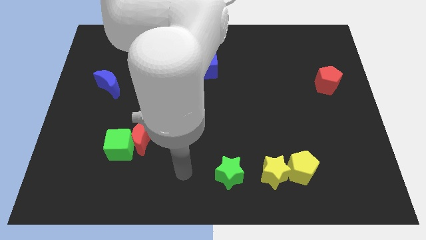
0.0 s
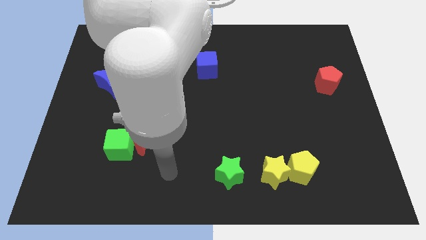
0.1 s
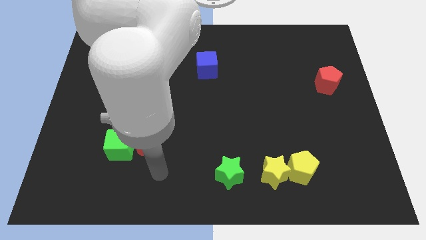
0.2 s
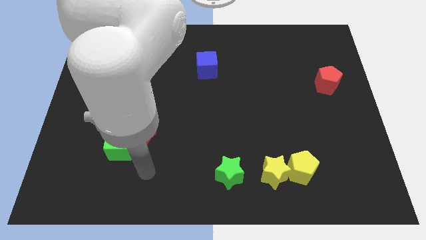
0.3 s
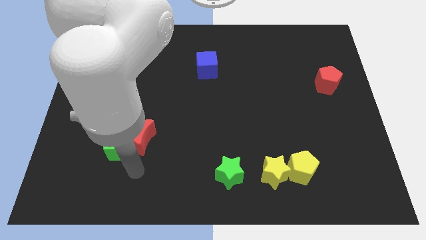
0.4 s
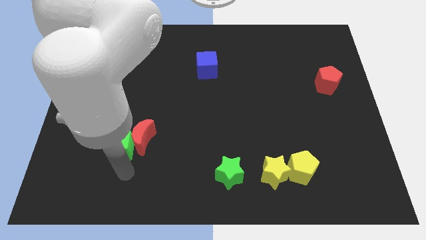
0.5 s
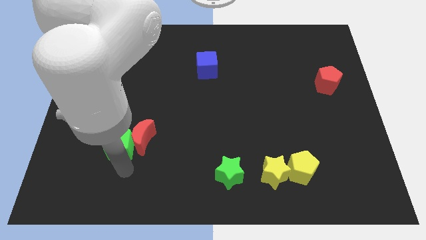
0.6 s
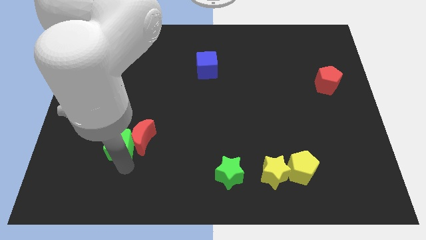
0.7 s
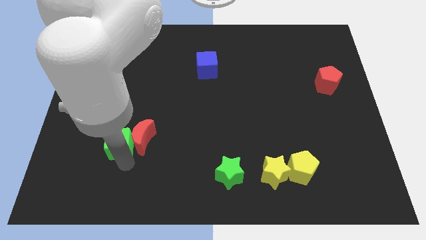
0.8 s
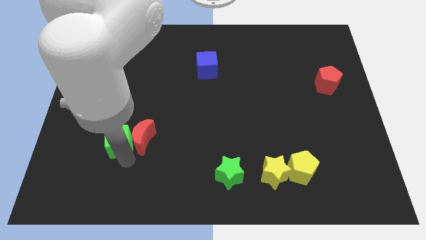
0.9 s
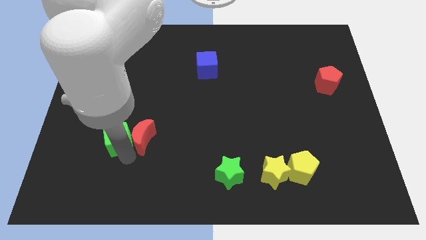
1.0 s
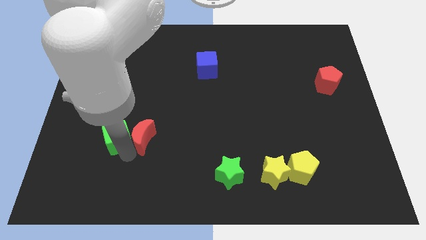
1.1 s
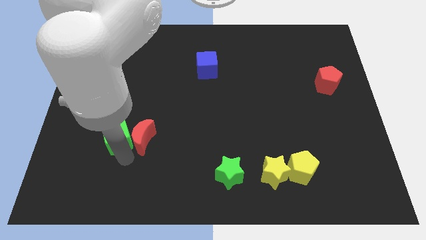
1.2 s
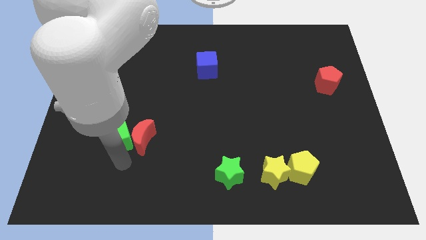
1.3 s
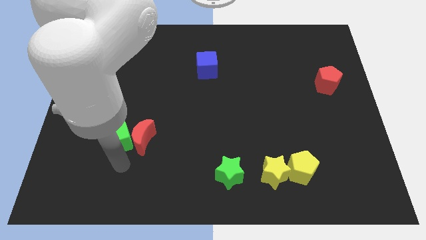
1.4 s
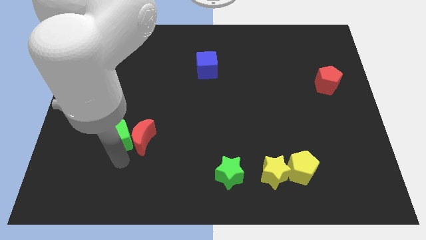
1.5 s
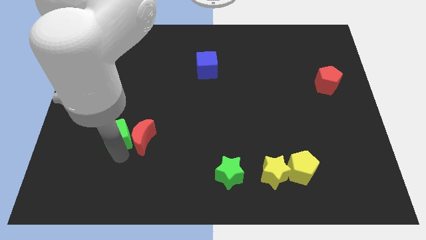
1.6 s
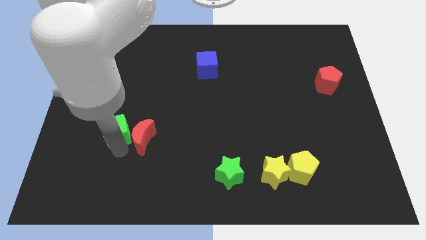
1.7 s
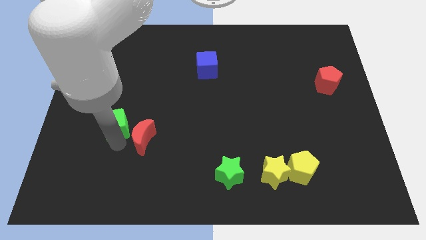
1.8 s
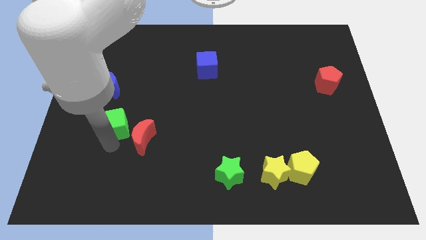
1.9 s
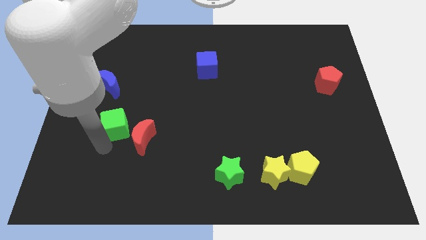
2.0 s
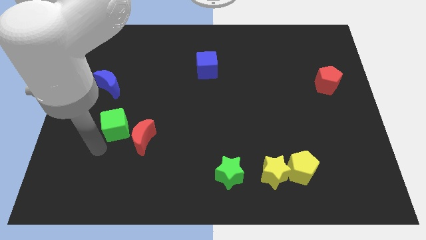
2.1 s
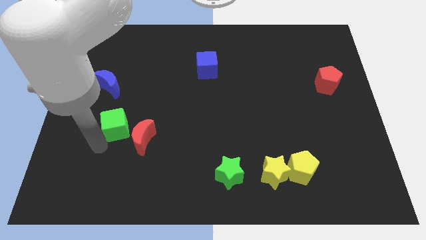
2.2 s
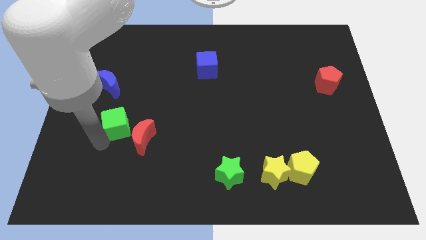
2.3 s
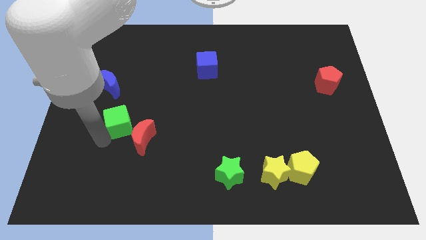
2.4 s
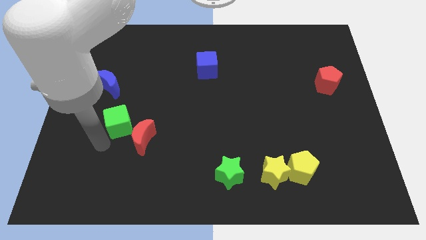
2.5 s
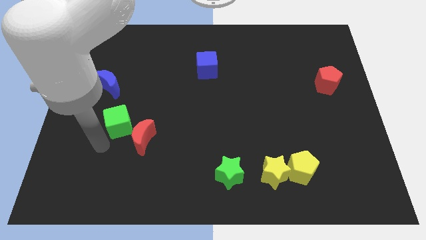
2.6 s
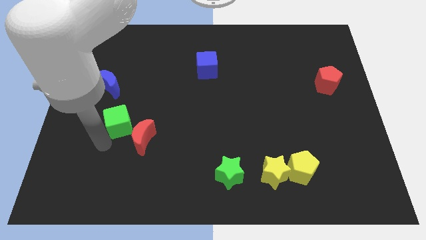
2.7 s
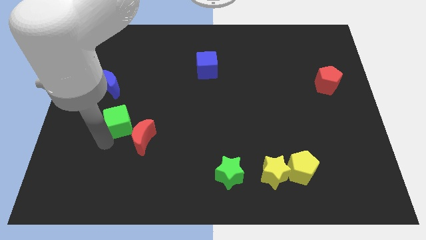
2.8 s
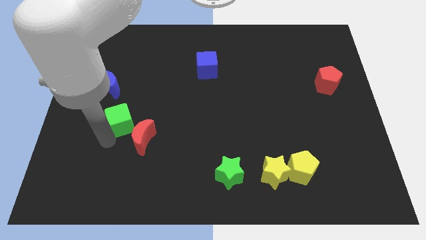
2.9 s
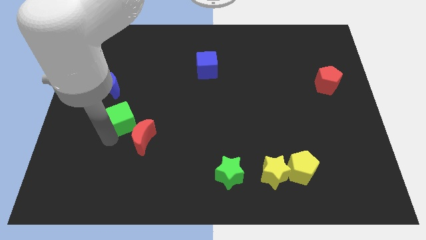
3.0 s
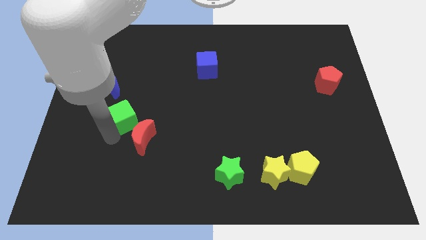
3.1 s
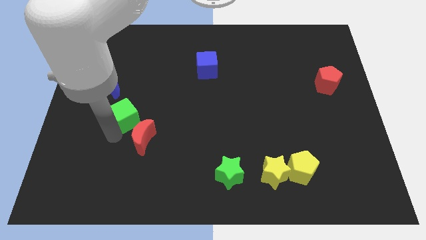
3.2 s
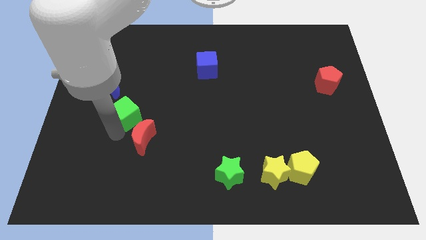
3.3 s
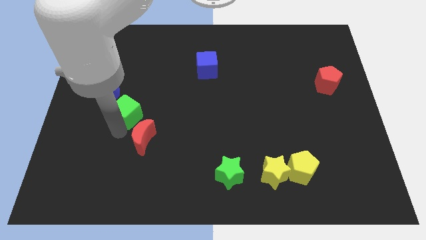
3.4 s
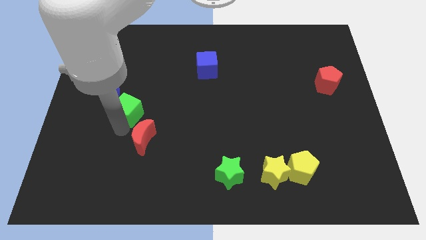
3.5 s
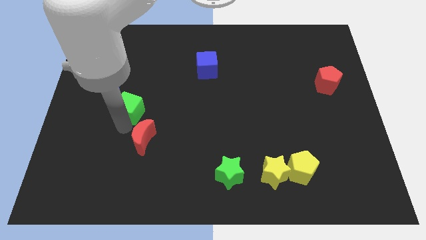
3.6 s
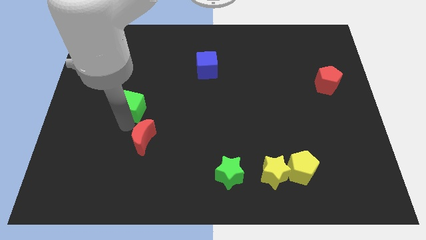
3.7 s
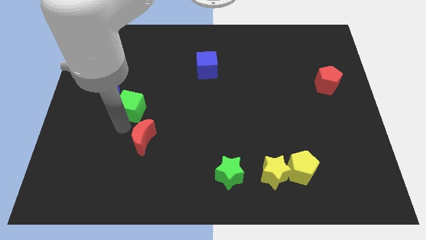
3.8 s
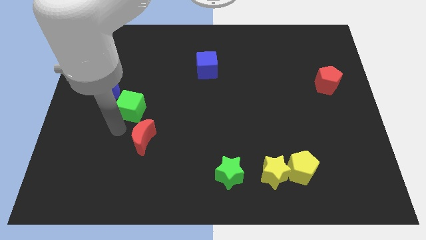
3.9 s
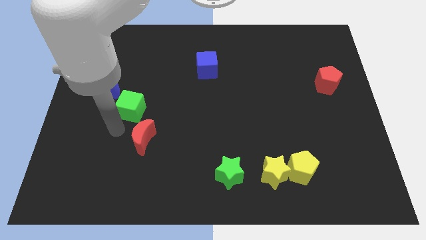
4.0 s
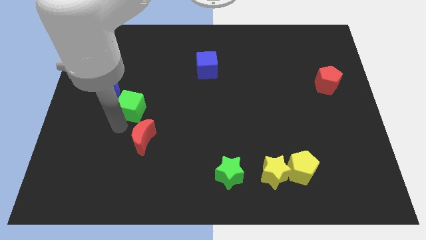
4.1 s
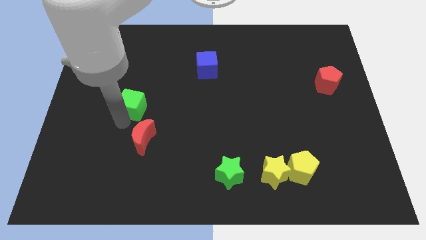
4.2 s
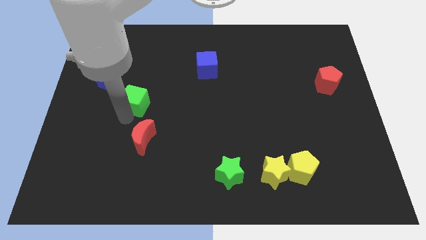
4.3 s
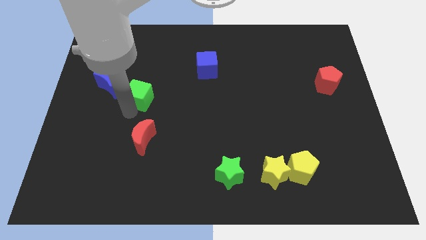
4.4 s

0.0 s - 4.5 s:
push the green cube just right of the blue moon

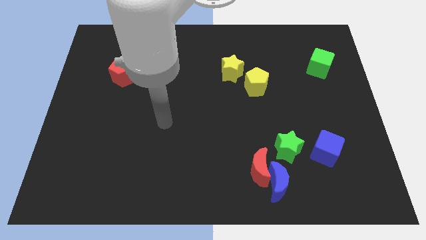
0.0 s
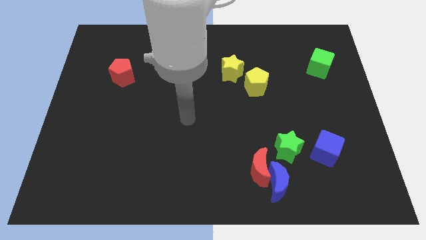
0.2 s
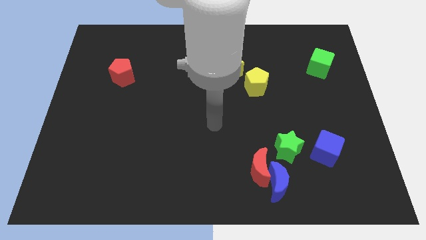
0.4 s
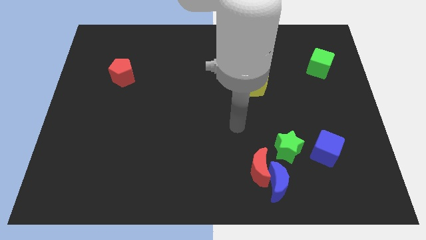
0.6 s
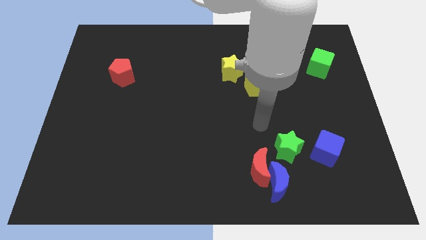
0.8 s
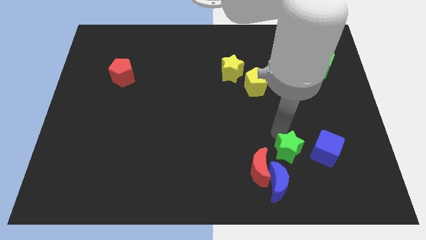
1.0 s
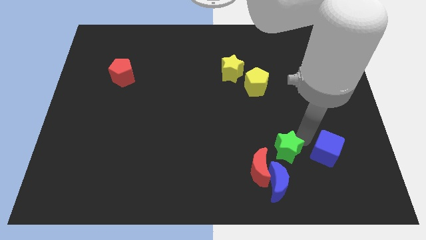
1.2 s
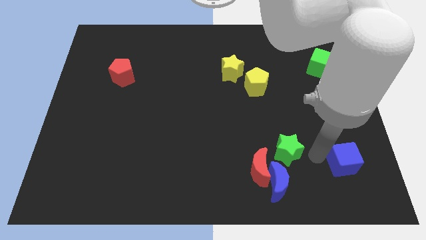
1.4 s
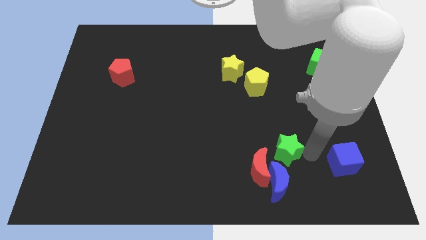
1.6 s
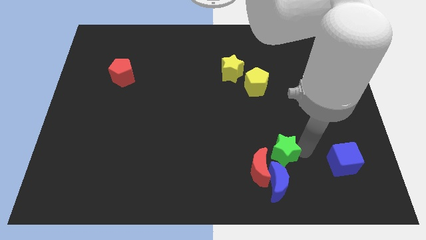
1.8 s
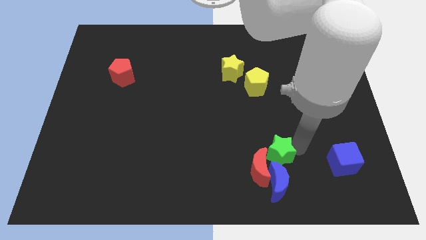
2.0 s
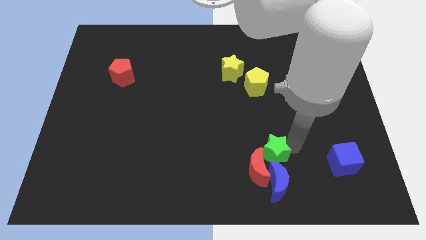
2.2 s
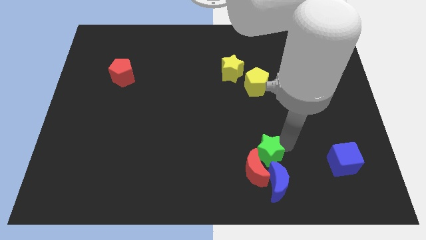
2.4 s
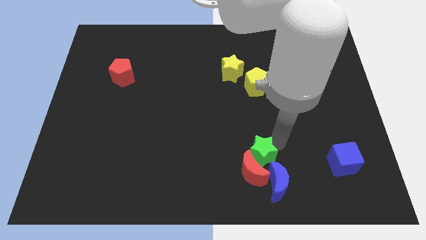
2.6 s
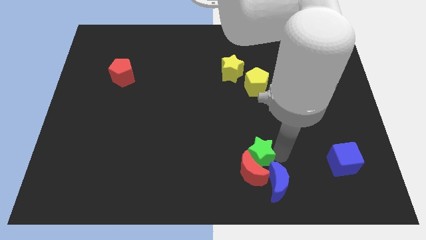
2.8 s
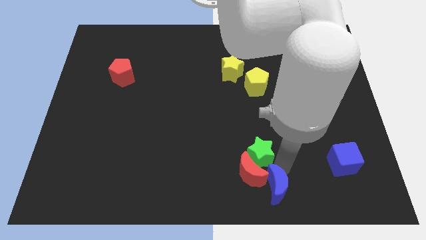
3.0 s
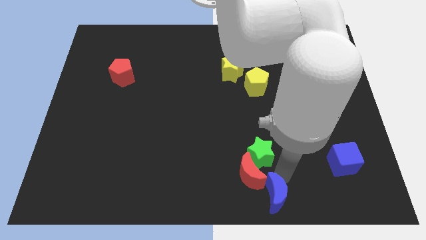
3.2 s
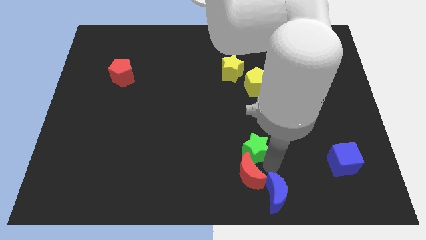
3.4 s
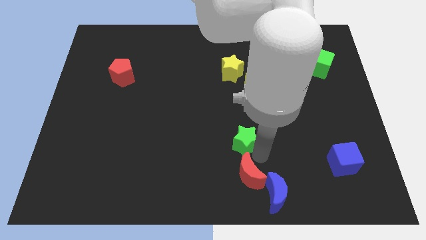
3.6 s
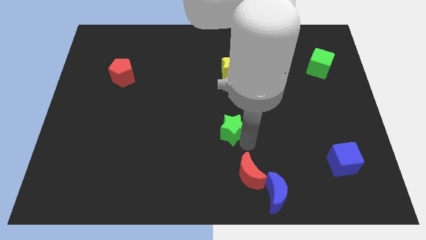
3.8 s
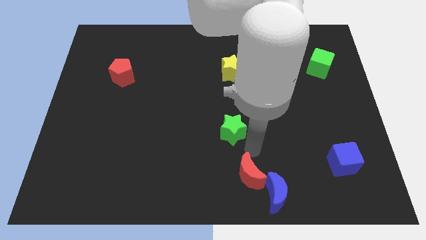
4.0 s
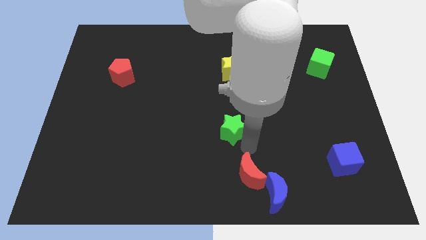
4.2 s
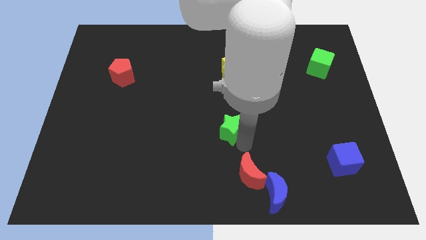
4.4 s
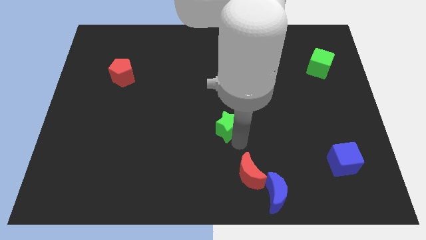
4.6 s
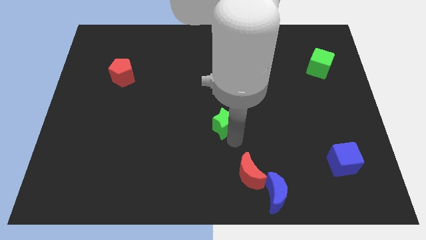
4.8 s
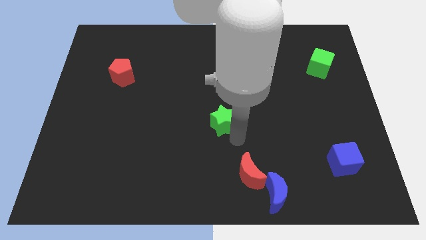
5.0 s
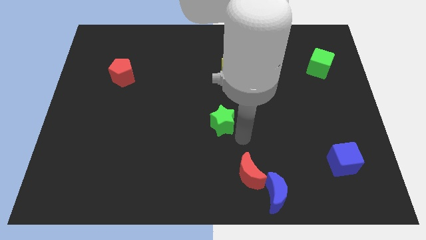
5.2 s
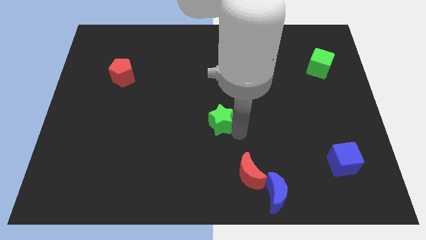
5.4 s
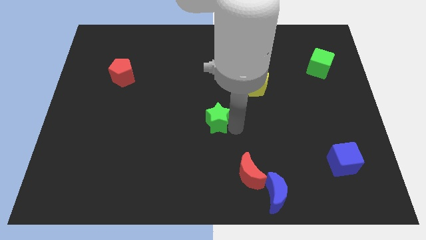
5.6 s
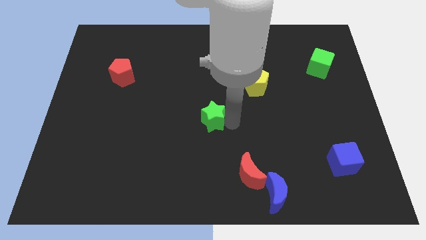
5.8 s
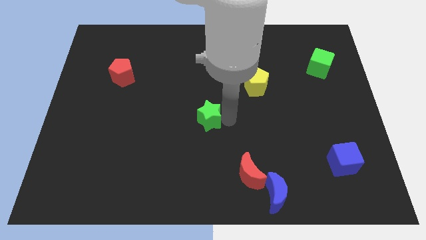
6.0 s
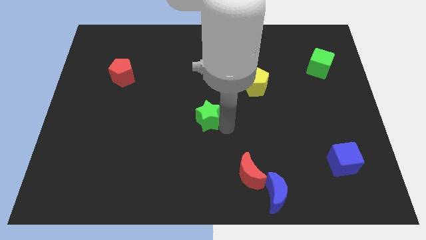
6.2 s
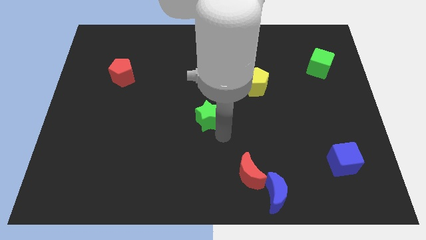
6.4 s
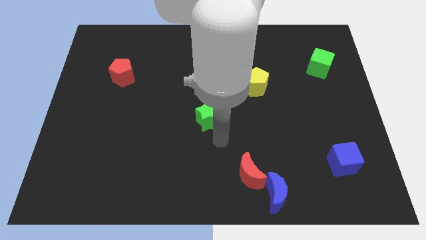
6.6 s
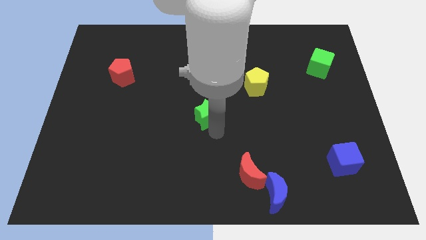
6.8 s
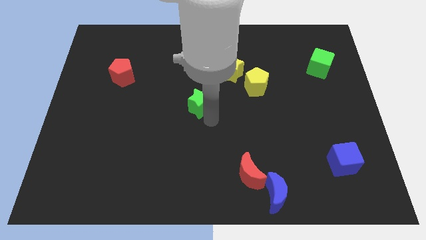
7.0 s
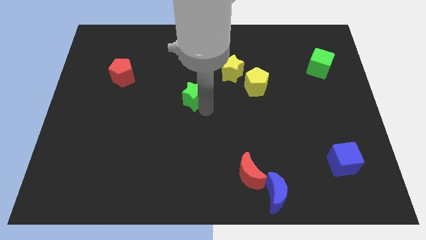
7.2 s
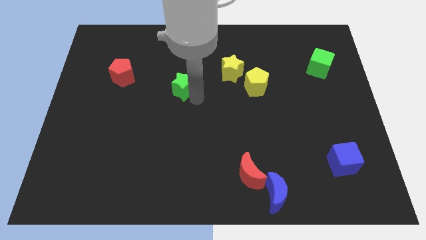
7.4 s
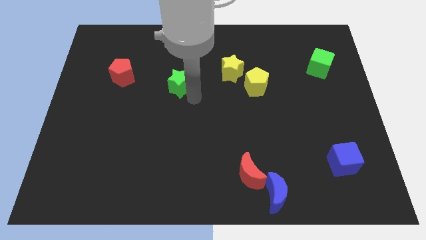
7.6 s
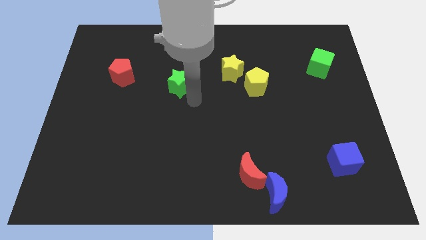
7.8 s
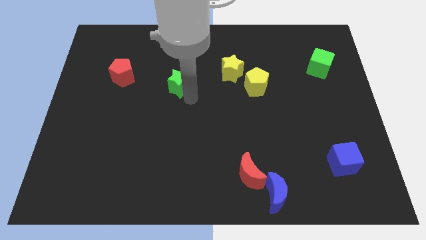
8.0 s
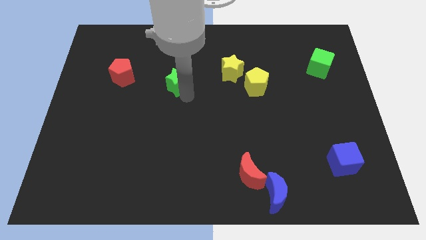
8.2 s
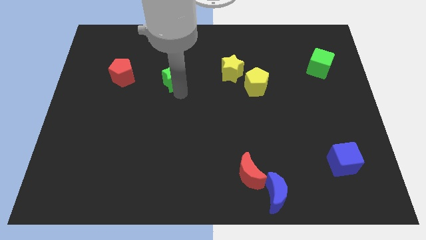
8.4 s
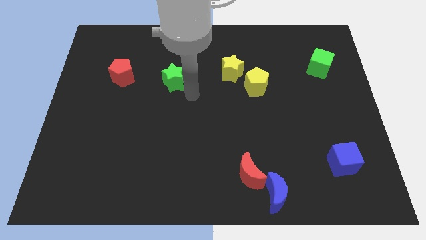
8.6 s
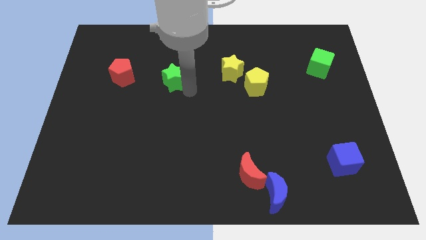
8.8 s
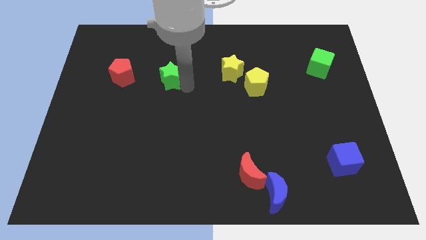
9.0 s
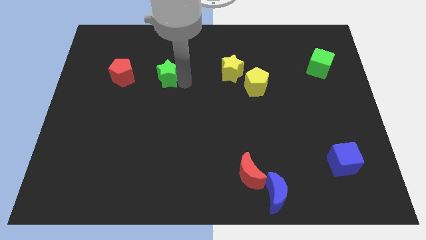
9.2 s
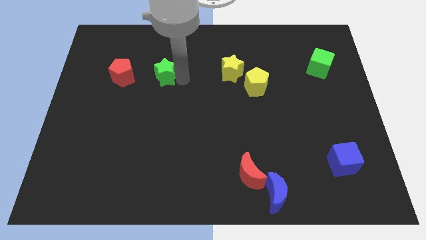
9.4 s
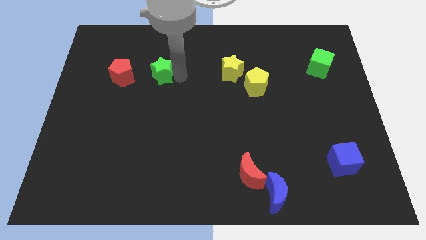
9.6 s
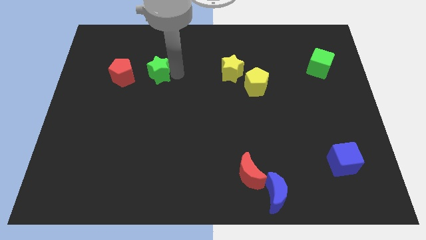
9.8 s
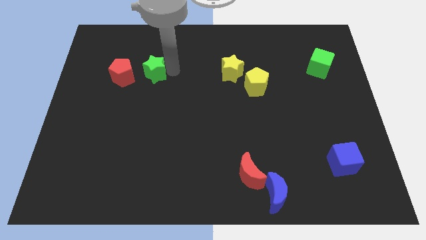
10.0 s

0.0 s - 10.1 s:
push the green star to the top right side of the red pentagon
